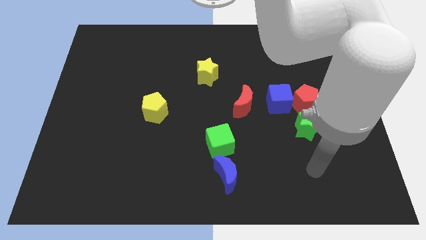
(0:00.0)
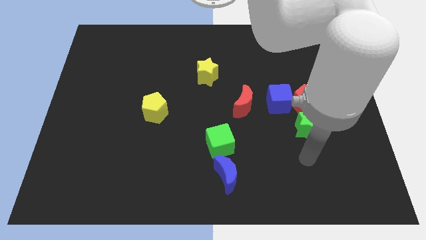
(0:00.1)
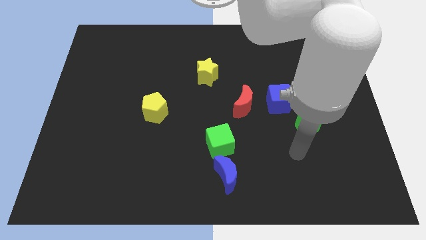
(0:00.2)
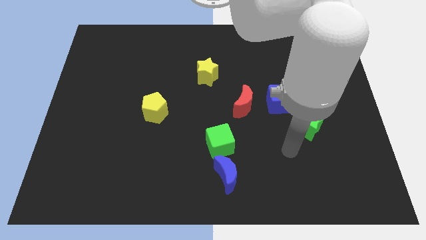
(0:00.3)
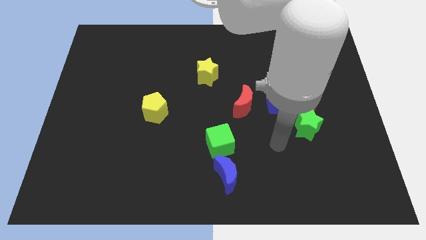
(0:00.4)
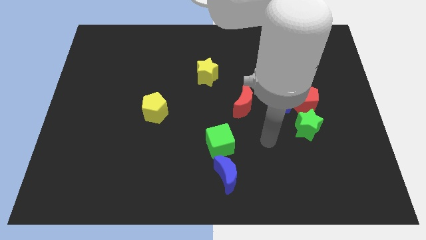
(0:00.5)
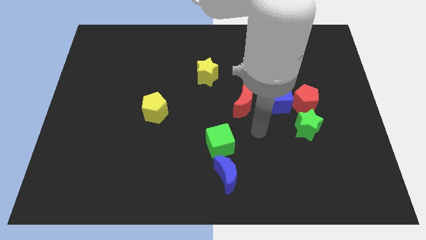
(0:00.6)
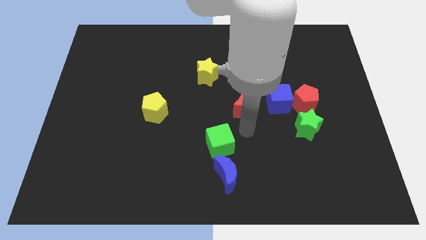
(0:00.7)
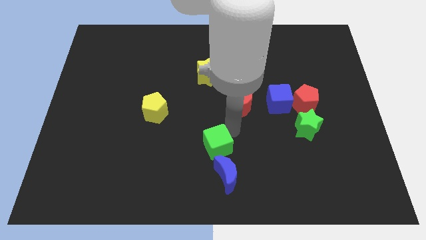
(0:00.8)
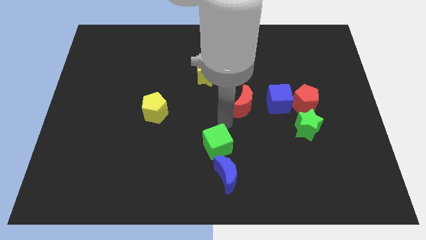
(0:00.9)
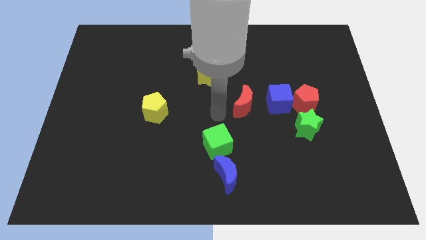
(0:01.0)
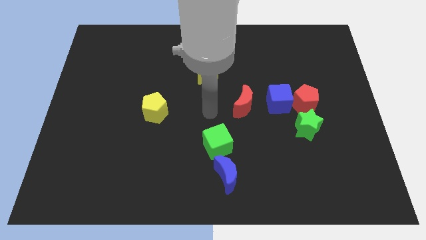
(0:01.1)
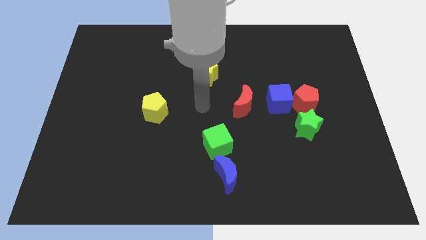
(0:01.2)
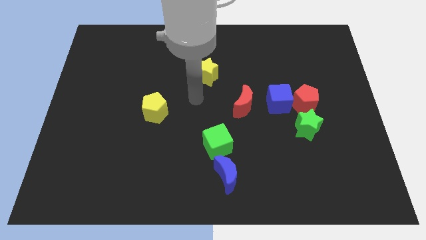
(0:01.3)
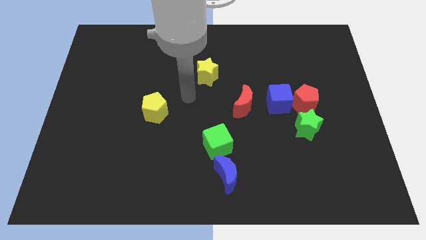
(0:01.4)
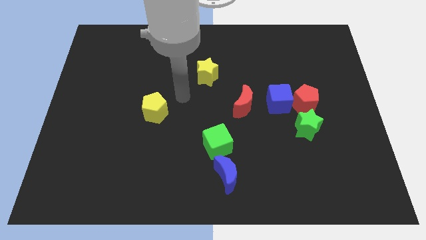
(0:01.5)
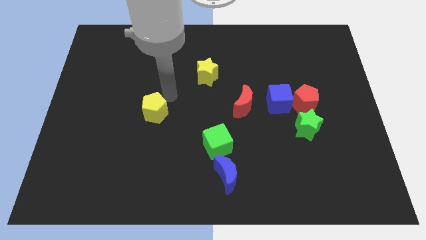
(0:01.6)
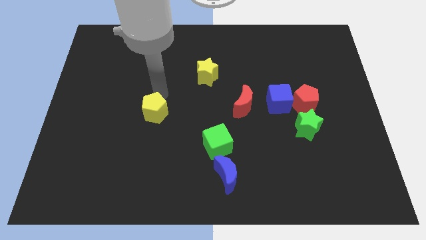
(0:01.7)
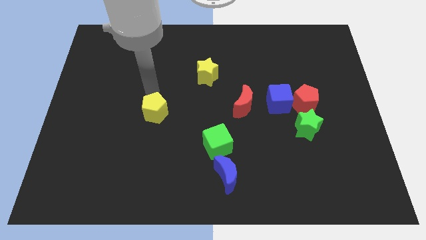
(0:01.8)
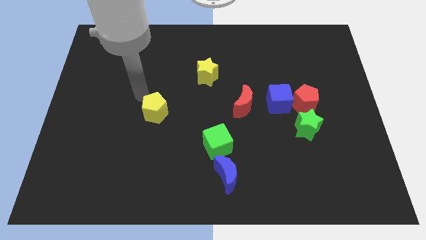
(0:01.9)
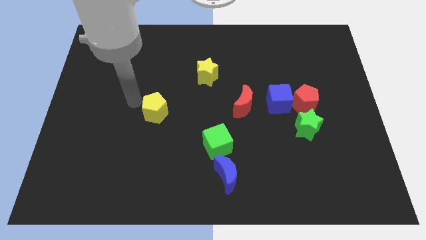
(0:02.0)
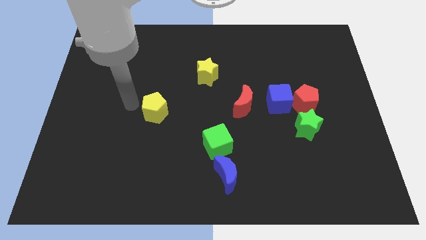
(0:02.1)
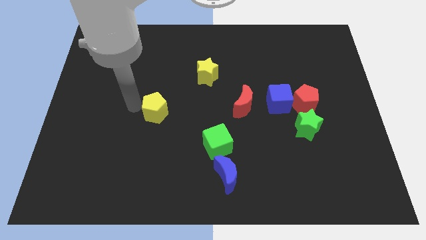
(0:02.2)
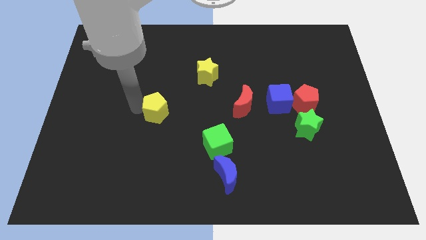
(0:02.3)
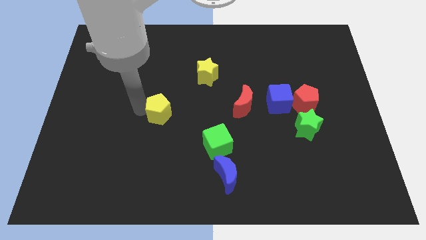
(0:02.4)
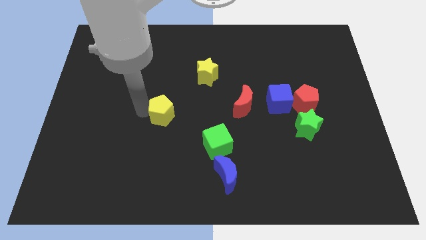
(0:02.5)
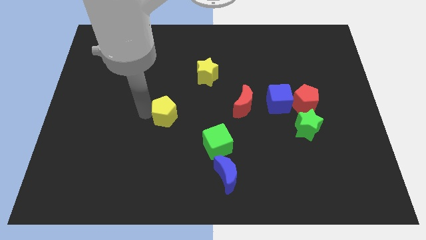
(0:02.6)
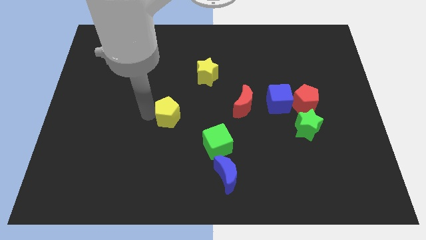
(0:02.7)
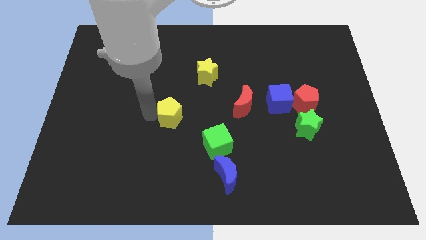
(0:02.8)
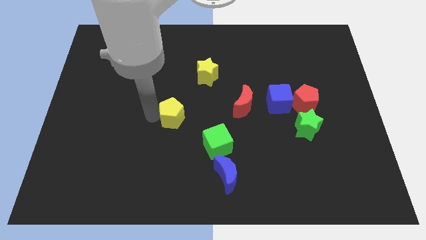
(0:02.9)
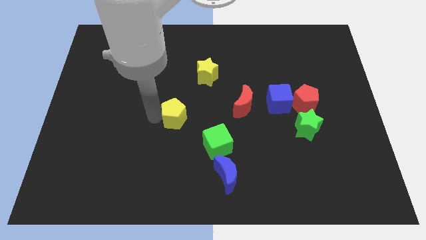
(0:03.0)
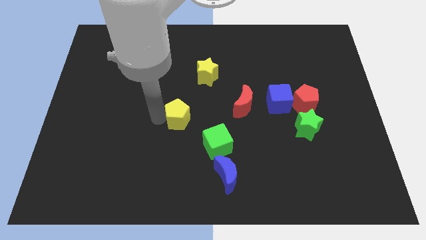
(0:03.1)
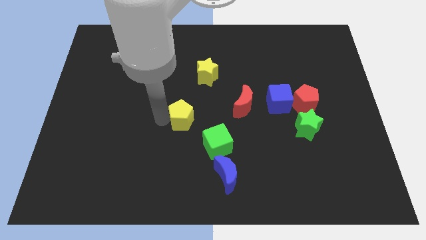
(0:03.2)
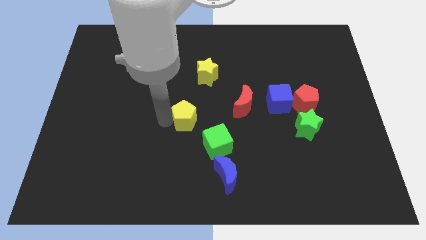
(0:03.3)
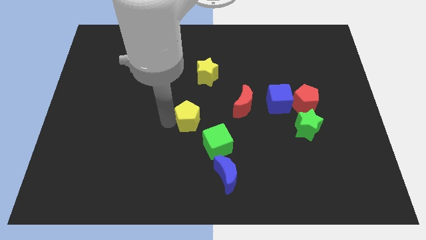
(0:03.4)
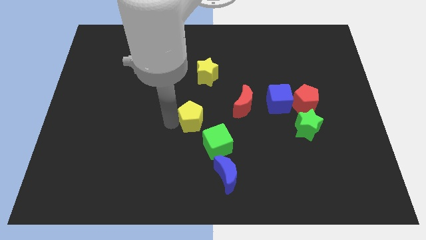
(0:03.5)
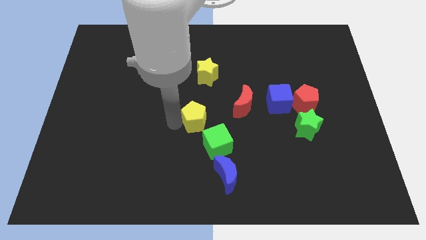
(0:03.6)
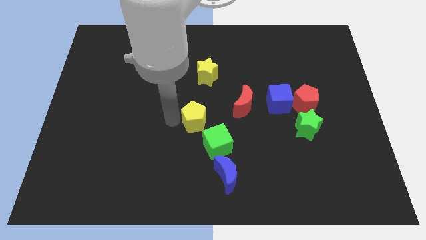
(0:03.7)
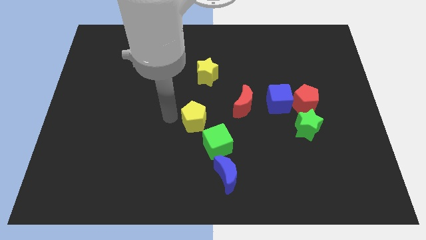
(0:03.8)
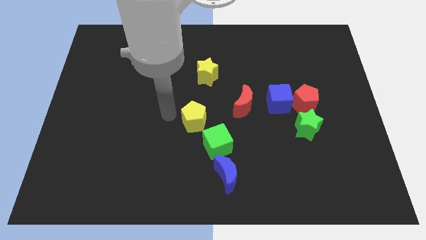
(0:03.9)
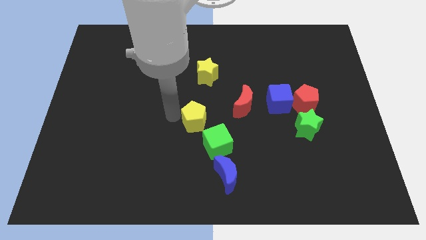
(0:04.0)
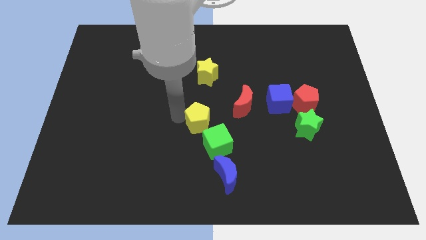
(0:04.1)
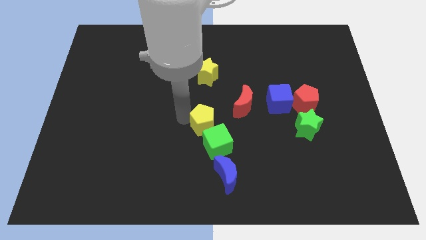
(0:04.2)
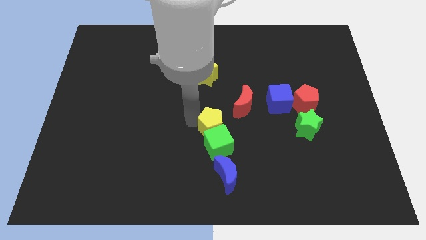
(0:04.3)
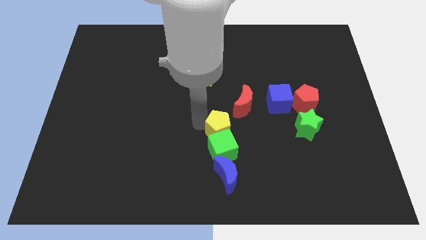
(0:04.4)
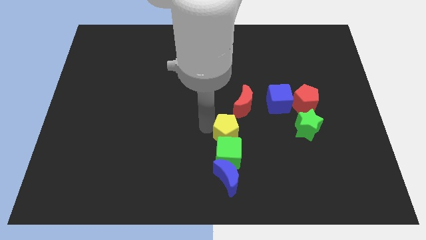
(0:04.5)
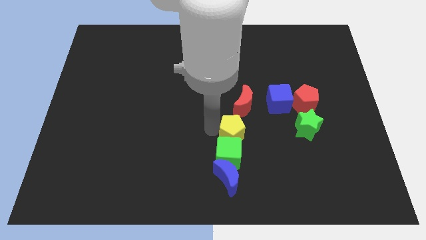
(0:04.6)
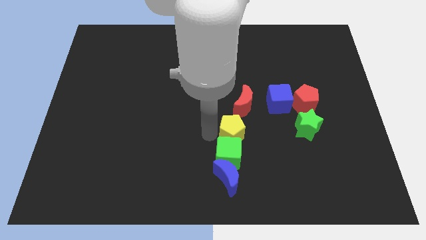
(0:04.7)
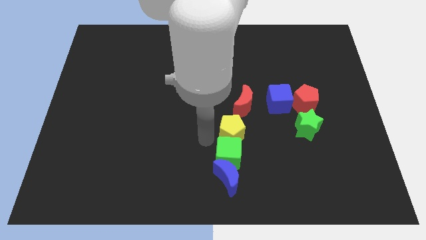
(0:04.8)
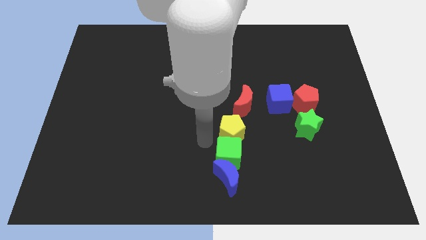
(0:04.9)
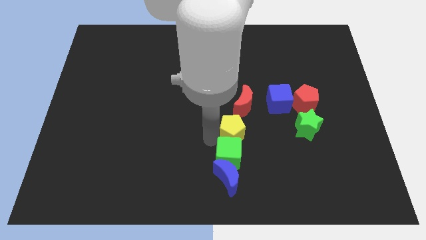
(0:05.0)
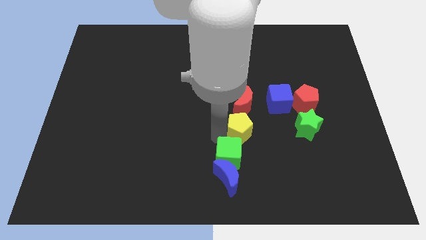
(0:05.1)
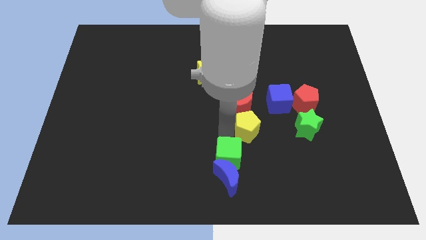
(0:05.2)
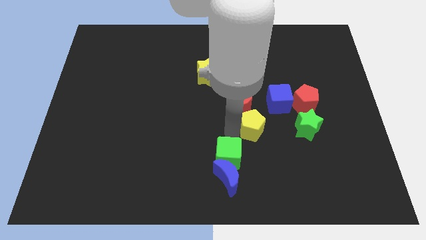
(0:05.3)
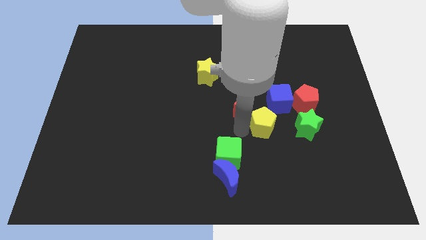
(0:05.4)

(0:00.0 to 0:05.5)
put the yellow pentagon to the bottom left of the red pentagon

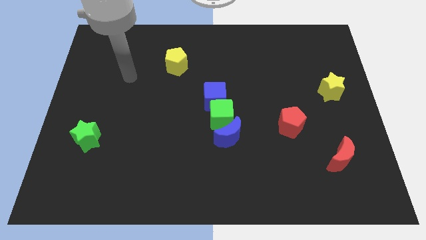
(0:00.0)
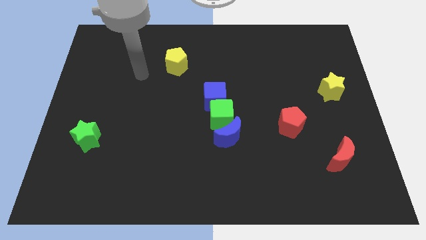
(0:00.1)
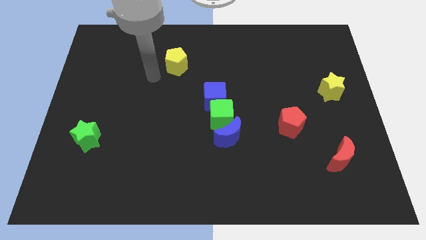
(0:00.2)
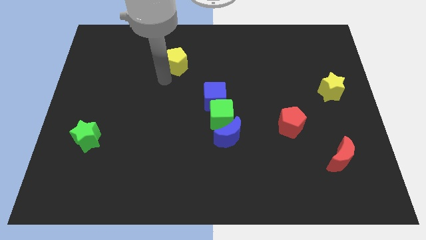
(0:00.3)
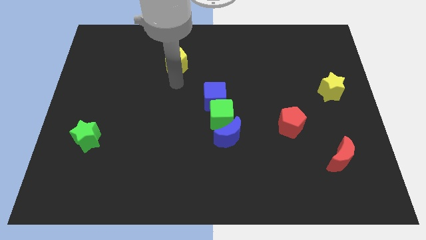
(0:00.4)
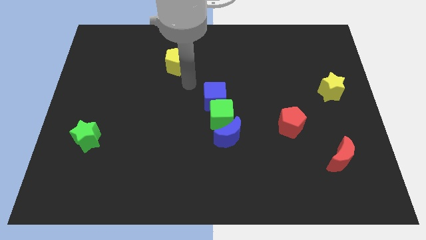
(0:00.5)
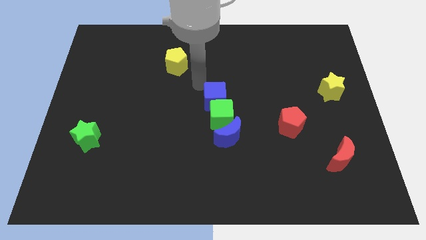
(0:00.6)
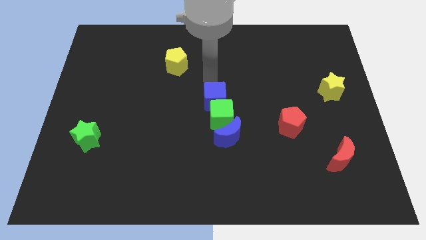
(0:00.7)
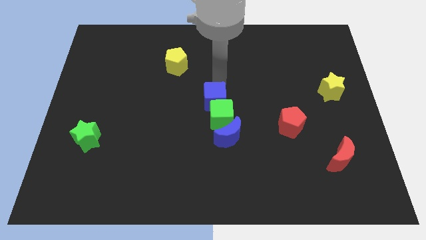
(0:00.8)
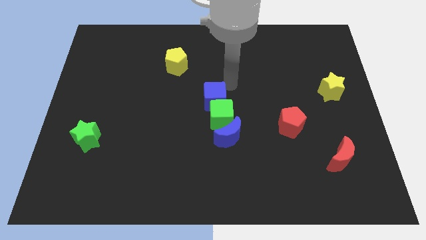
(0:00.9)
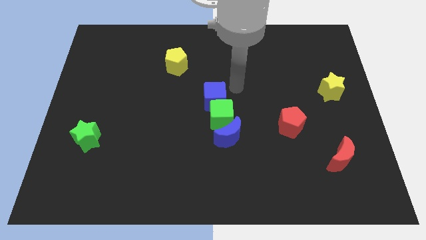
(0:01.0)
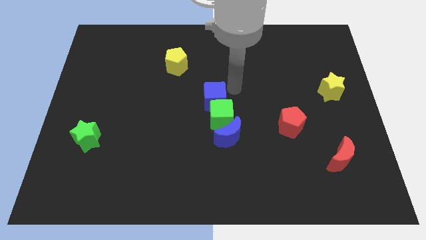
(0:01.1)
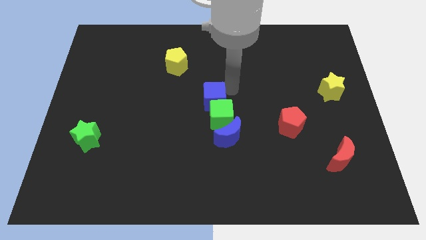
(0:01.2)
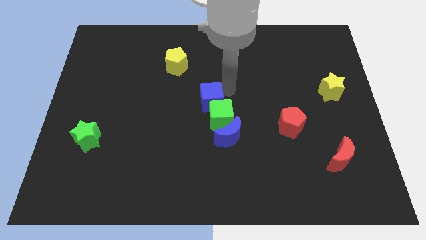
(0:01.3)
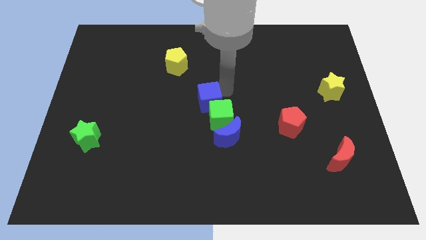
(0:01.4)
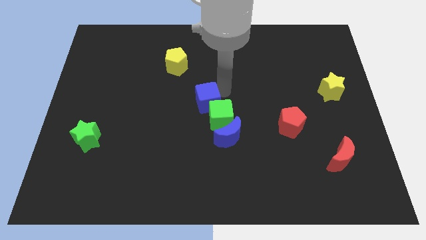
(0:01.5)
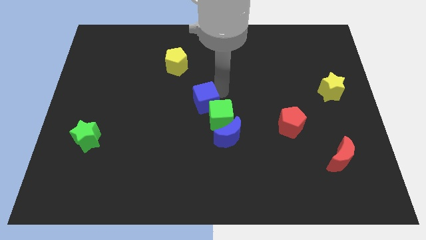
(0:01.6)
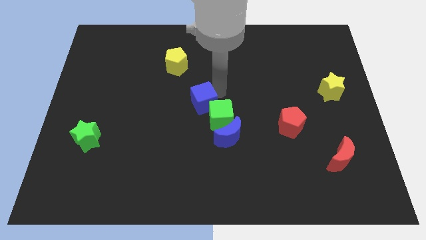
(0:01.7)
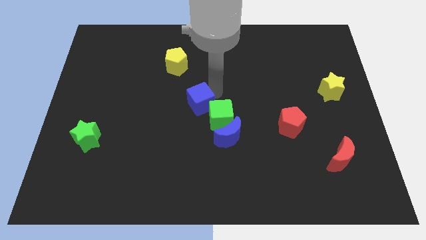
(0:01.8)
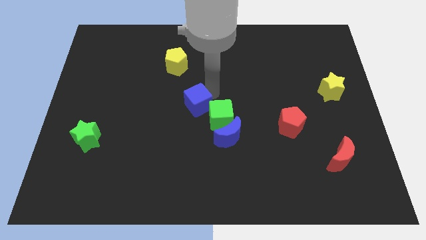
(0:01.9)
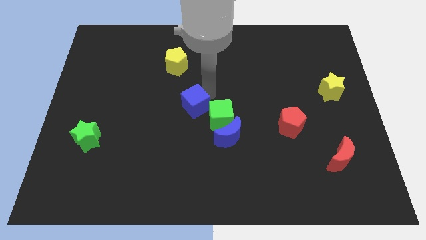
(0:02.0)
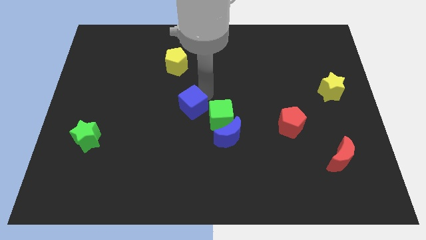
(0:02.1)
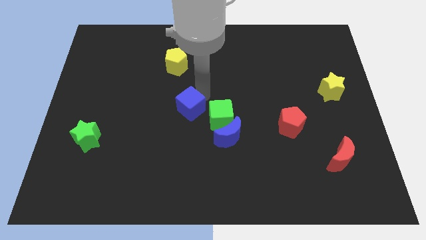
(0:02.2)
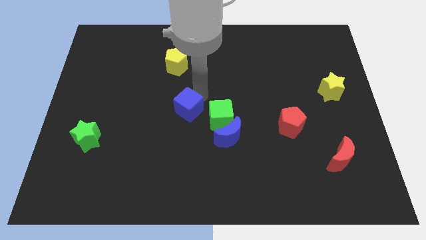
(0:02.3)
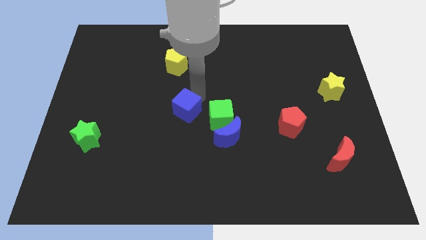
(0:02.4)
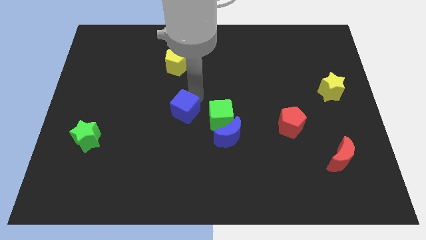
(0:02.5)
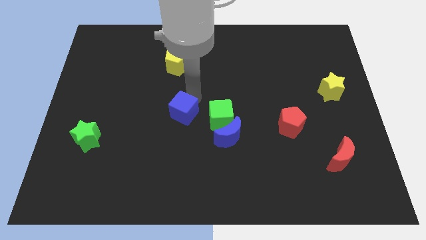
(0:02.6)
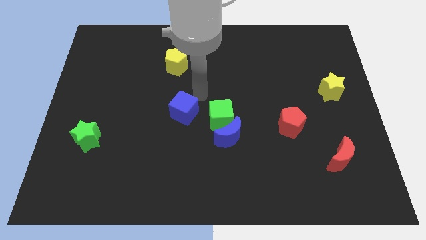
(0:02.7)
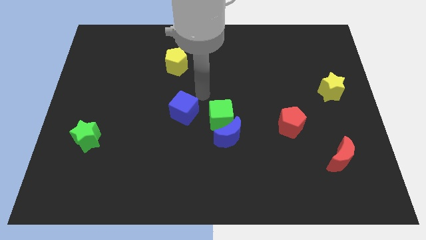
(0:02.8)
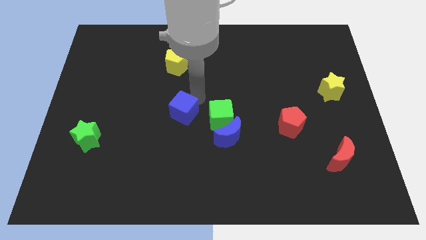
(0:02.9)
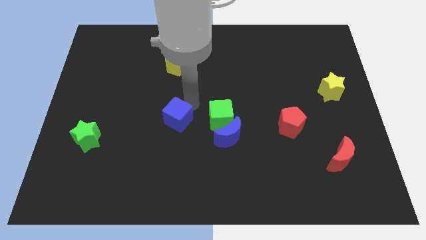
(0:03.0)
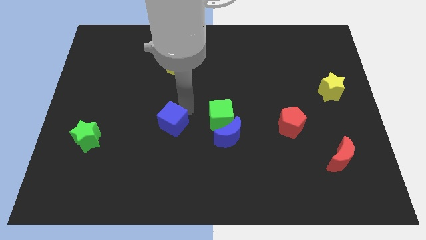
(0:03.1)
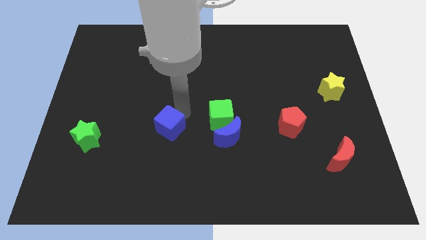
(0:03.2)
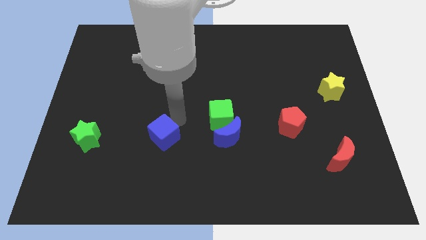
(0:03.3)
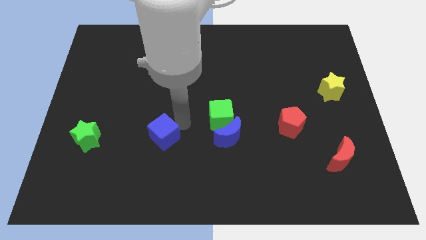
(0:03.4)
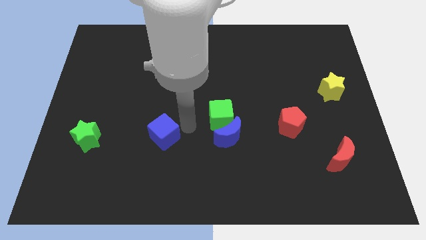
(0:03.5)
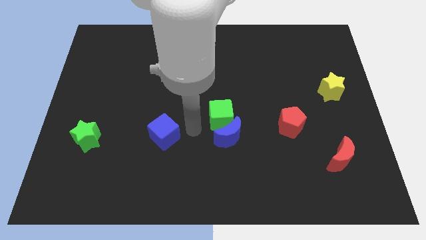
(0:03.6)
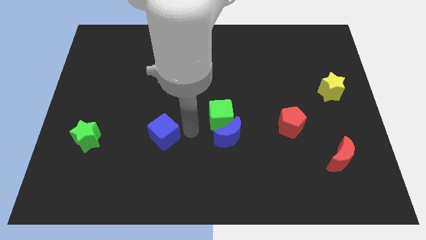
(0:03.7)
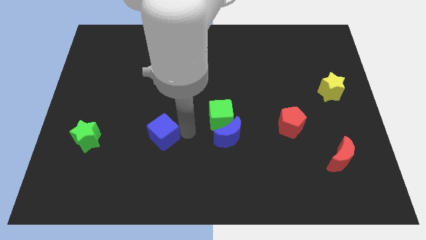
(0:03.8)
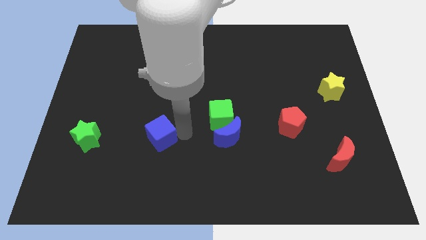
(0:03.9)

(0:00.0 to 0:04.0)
put the blue cube to the right of the green star
